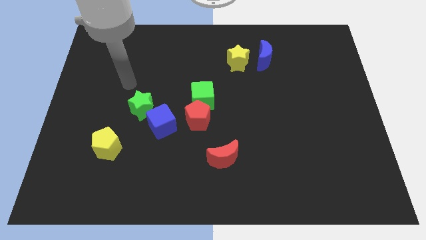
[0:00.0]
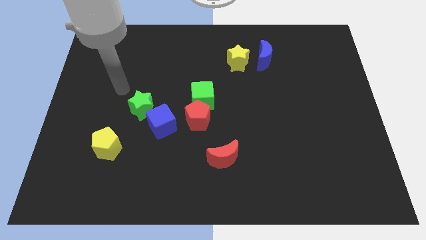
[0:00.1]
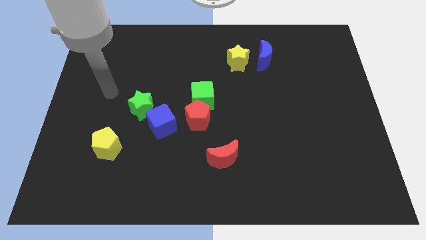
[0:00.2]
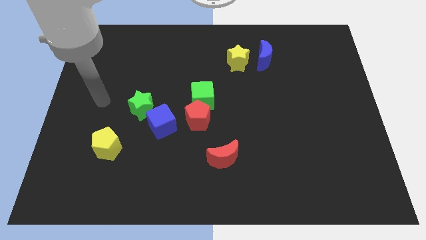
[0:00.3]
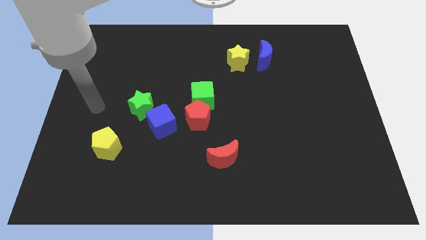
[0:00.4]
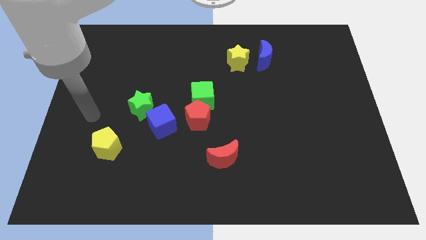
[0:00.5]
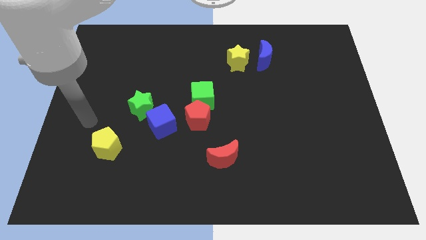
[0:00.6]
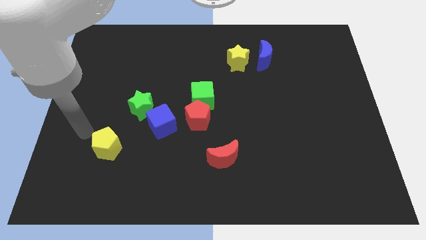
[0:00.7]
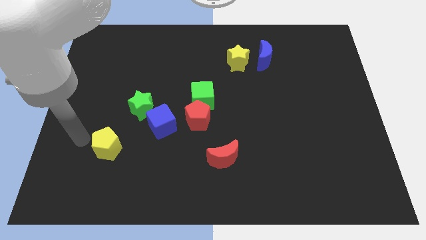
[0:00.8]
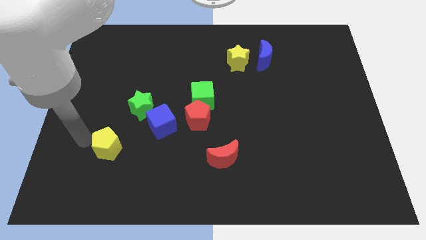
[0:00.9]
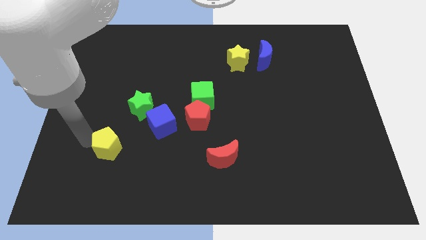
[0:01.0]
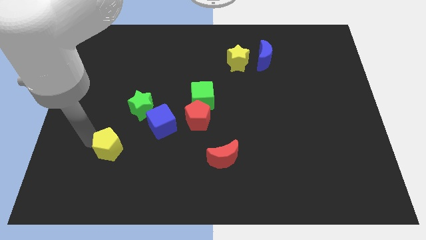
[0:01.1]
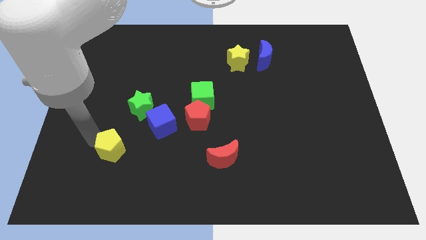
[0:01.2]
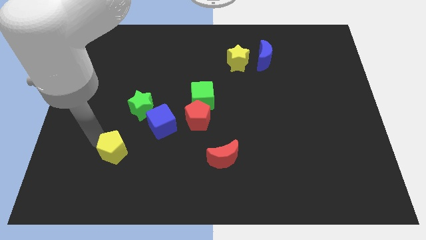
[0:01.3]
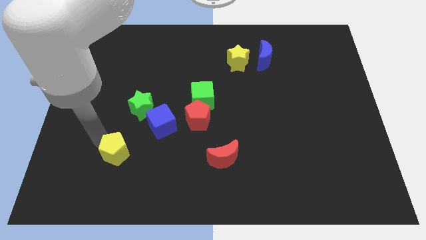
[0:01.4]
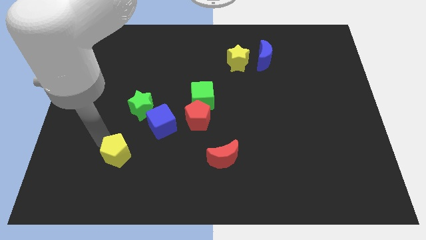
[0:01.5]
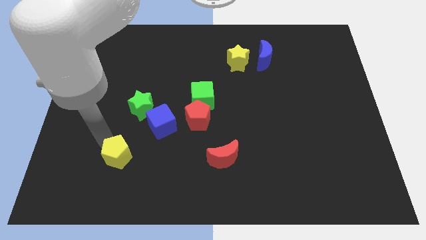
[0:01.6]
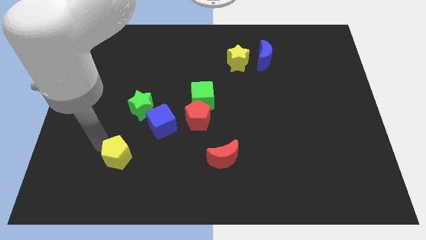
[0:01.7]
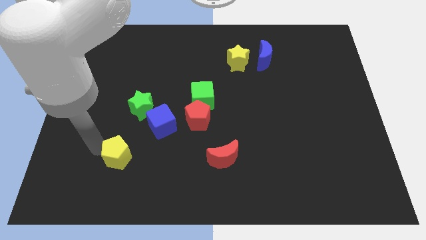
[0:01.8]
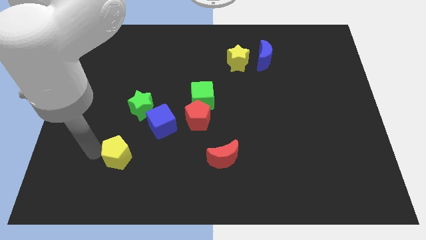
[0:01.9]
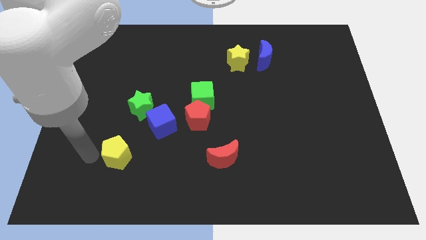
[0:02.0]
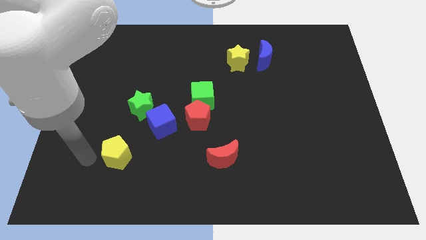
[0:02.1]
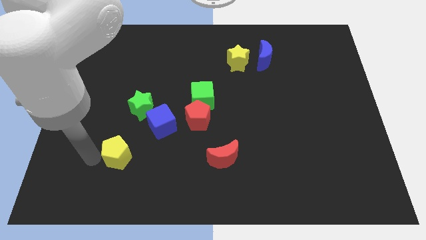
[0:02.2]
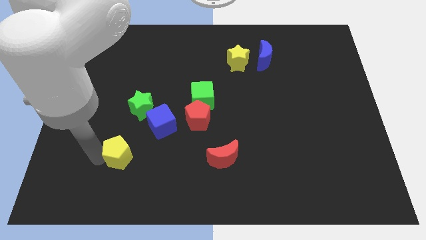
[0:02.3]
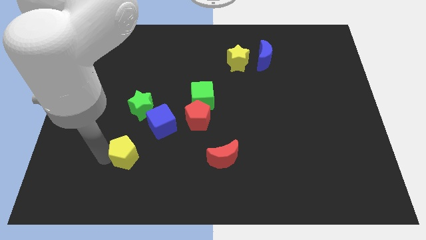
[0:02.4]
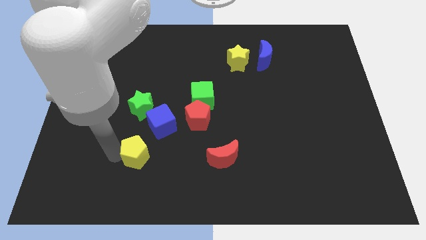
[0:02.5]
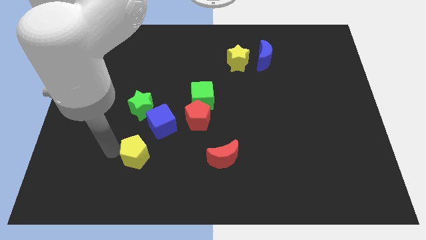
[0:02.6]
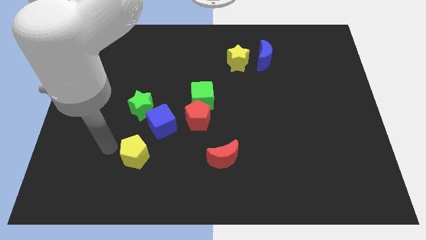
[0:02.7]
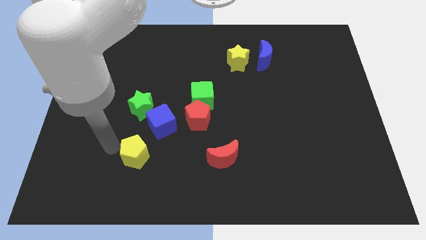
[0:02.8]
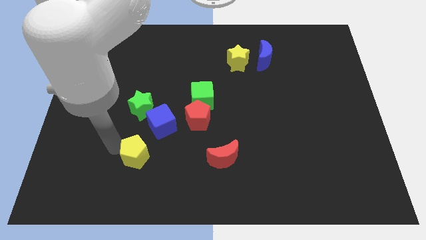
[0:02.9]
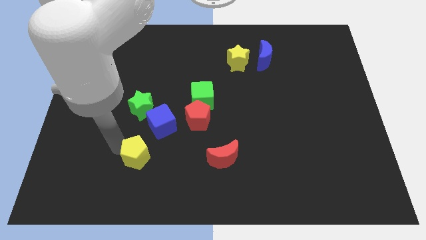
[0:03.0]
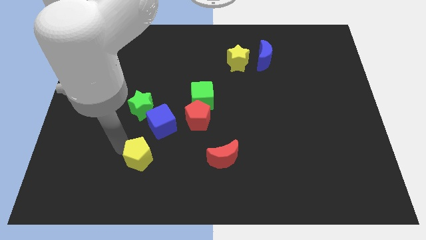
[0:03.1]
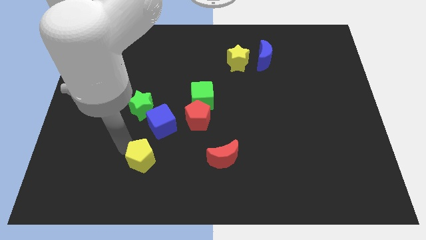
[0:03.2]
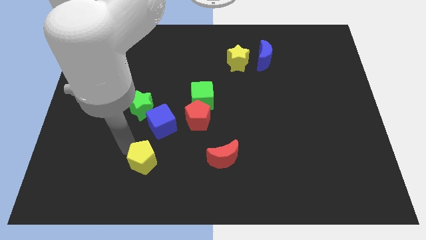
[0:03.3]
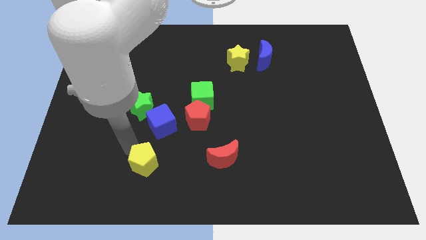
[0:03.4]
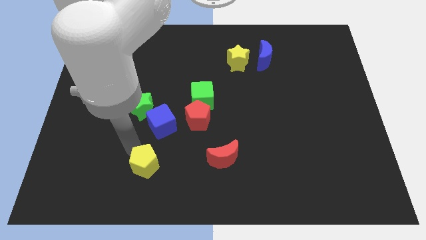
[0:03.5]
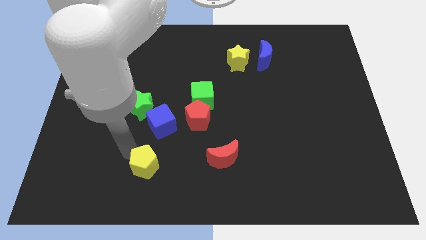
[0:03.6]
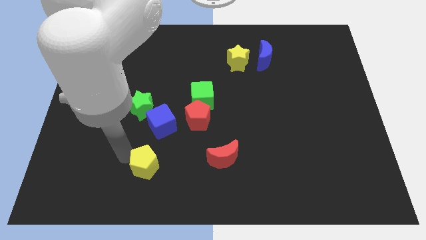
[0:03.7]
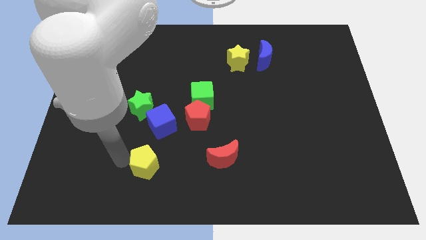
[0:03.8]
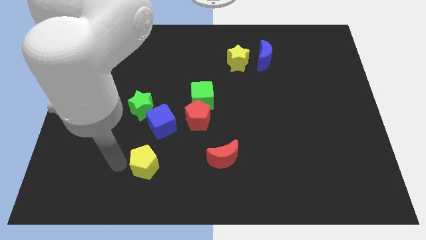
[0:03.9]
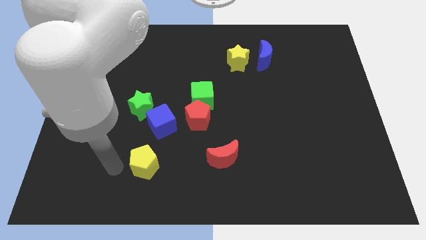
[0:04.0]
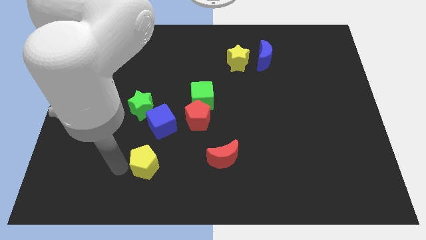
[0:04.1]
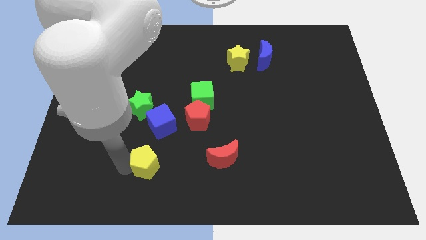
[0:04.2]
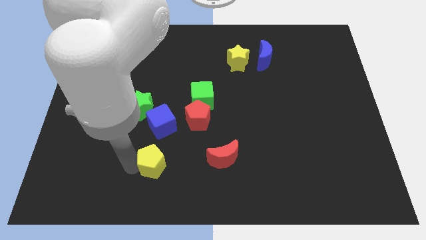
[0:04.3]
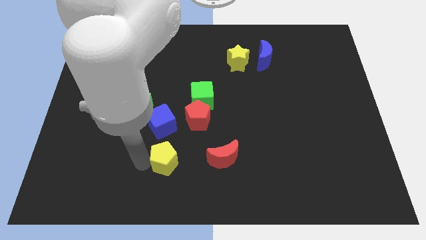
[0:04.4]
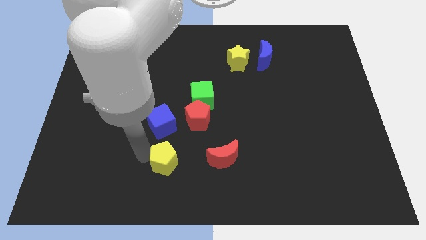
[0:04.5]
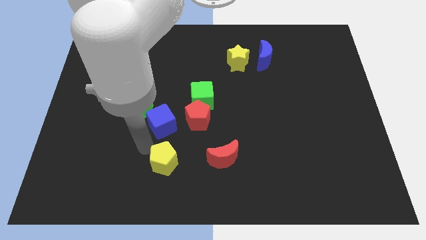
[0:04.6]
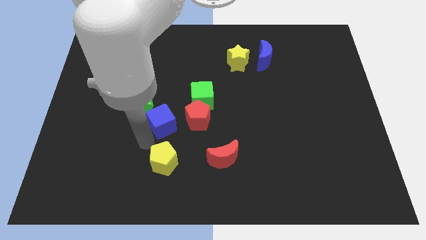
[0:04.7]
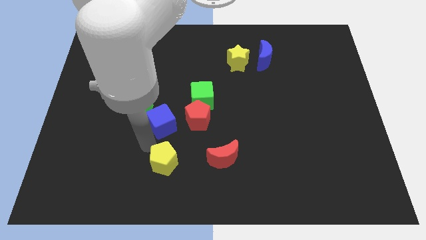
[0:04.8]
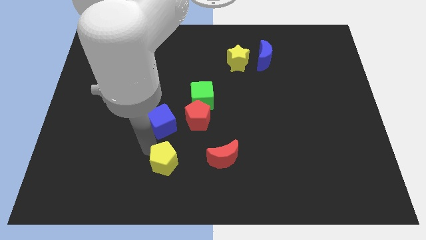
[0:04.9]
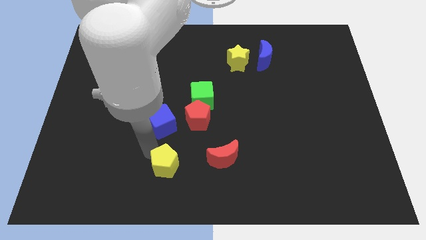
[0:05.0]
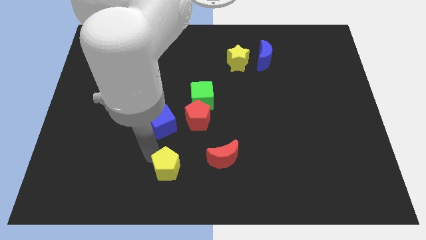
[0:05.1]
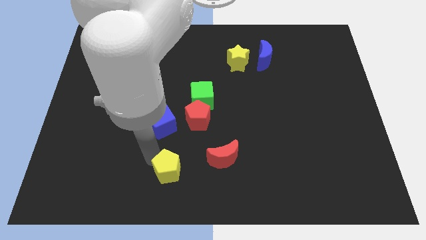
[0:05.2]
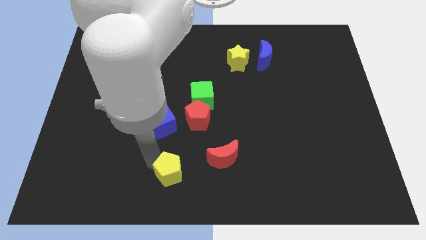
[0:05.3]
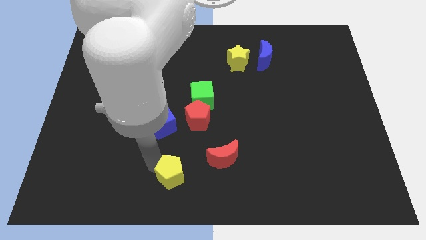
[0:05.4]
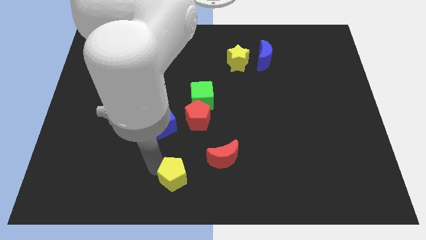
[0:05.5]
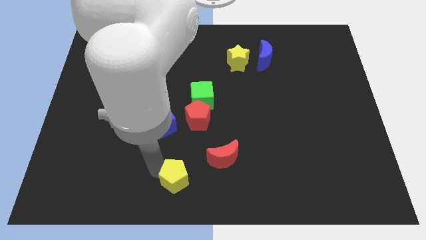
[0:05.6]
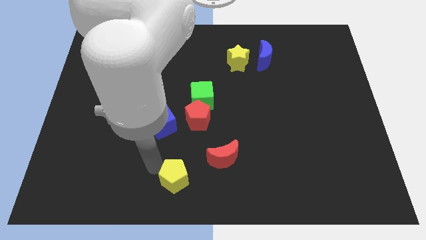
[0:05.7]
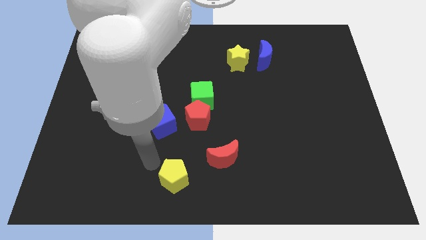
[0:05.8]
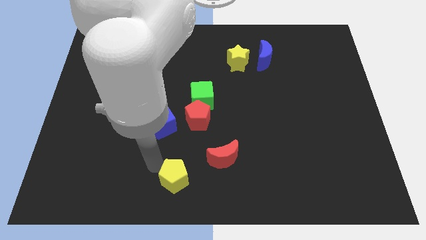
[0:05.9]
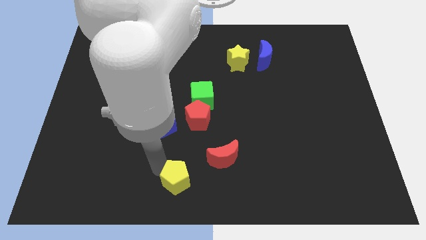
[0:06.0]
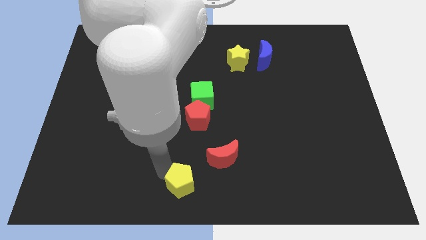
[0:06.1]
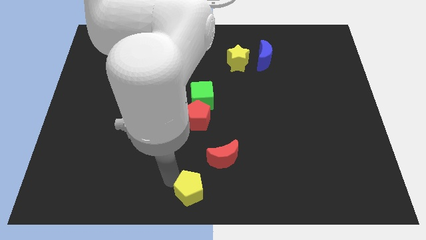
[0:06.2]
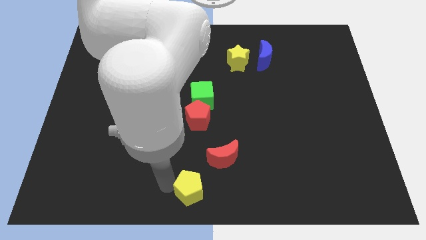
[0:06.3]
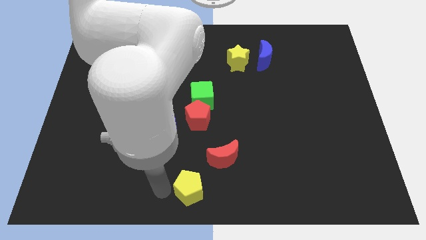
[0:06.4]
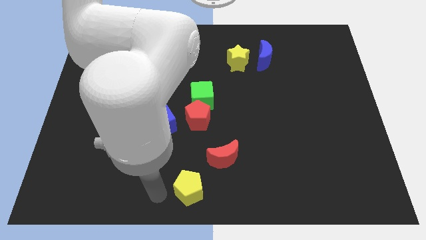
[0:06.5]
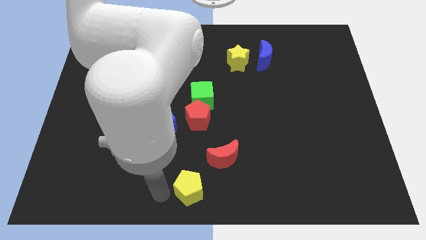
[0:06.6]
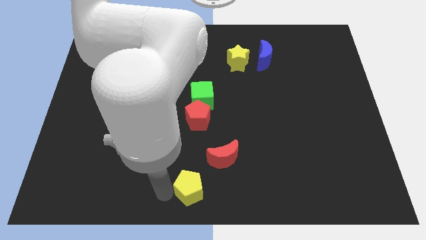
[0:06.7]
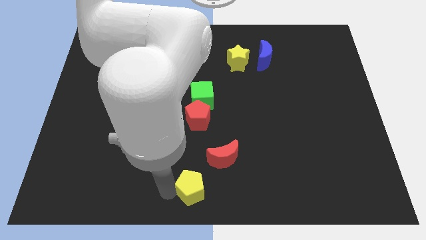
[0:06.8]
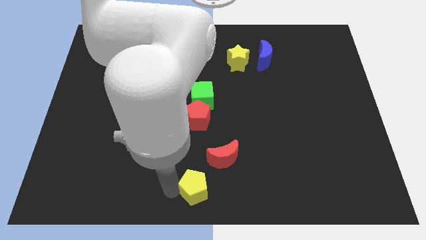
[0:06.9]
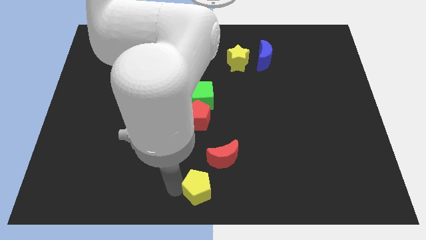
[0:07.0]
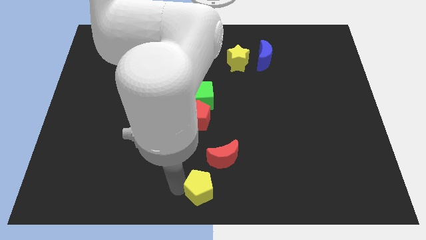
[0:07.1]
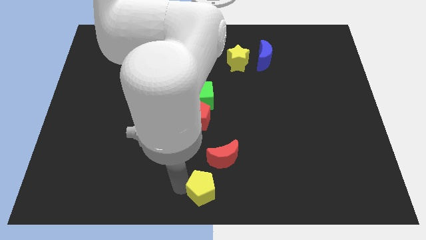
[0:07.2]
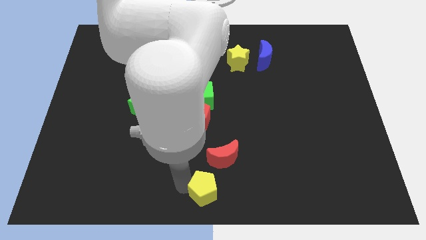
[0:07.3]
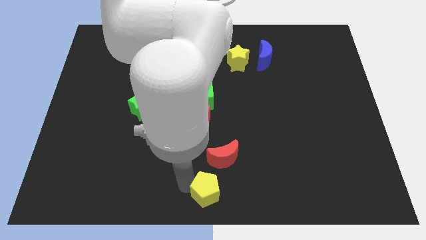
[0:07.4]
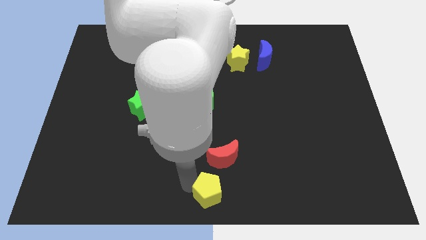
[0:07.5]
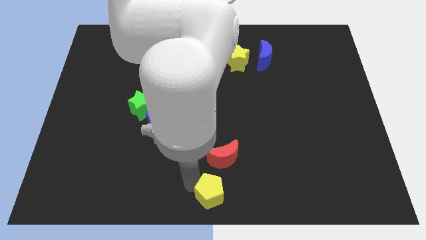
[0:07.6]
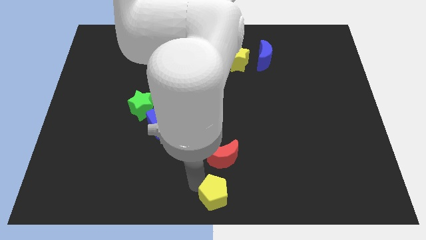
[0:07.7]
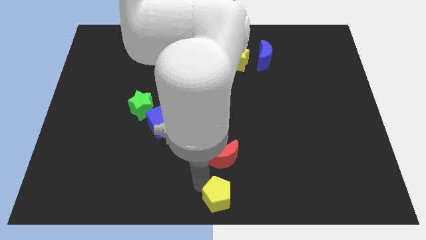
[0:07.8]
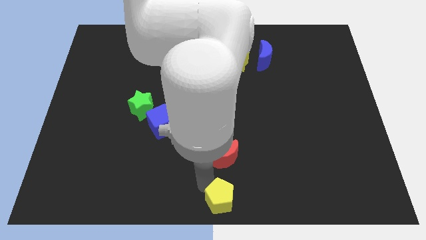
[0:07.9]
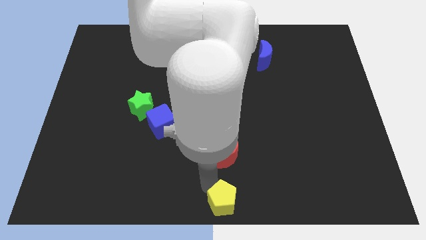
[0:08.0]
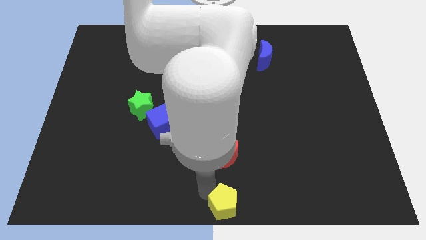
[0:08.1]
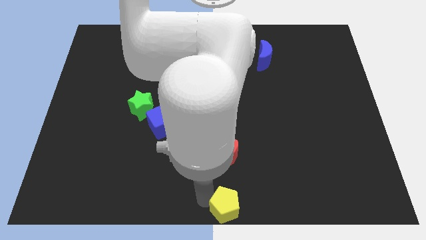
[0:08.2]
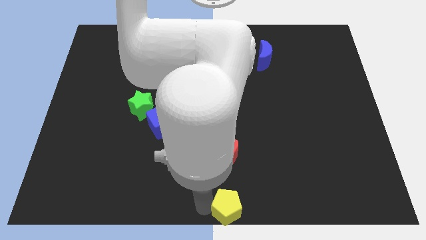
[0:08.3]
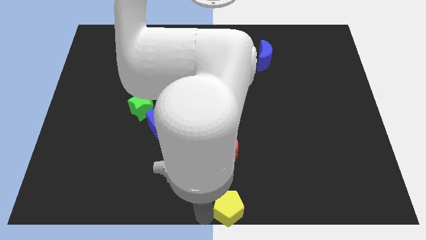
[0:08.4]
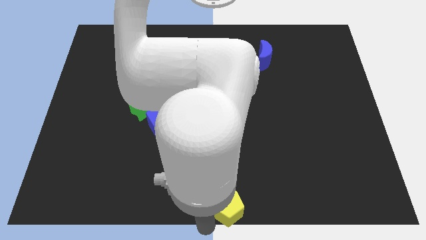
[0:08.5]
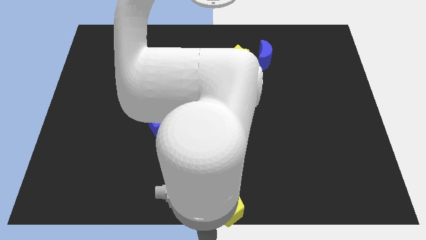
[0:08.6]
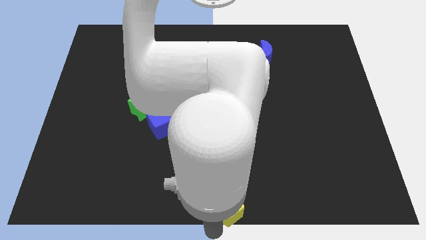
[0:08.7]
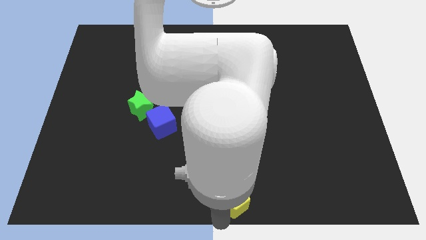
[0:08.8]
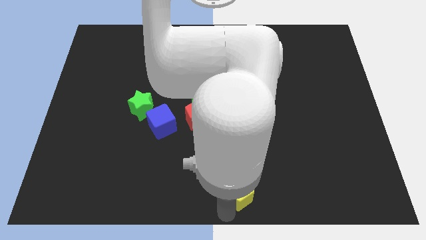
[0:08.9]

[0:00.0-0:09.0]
push the yellow pentagon diagonally down and to the right of the red moon
